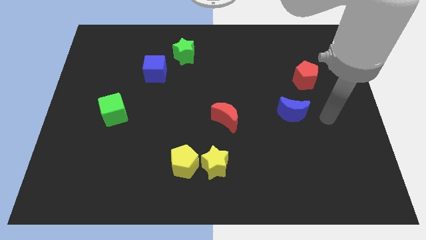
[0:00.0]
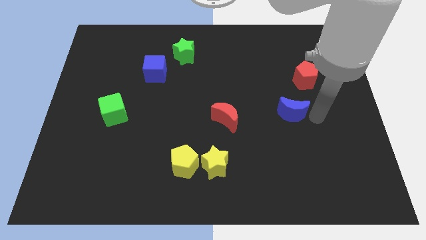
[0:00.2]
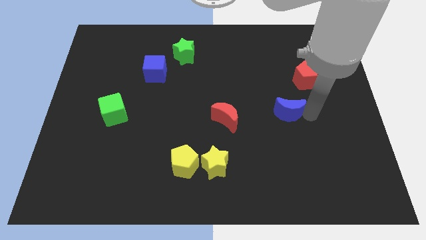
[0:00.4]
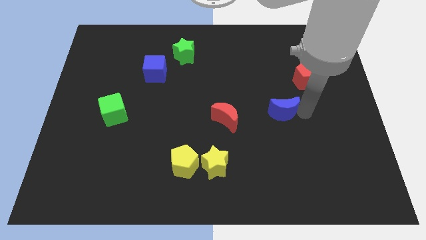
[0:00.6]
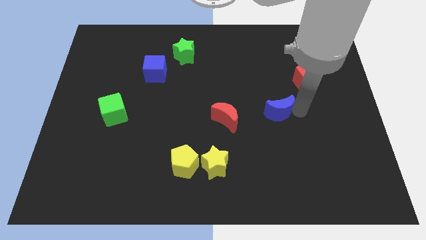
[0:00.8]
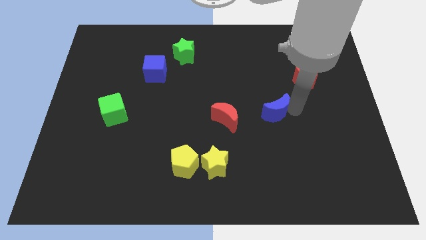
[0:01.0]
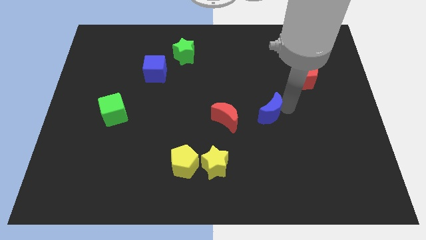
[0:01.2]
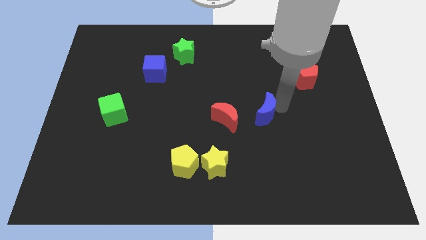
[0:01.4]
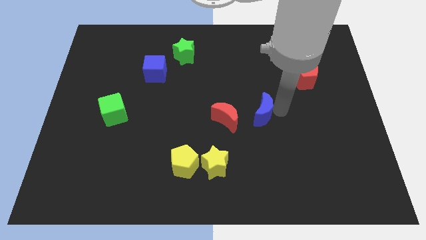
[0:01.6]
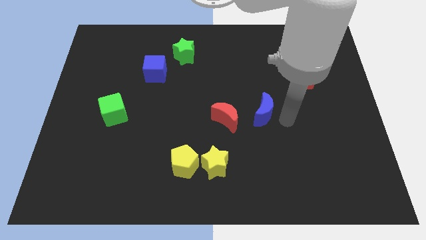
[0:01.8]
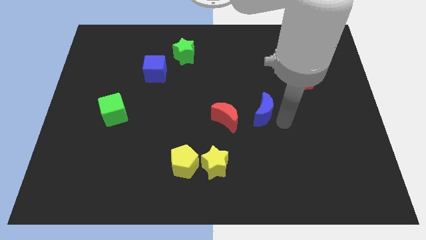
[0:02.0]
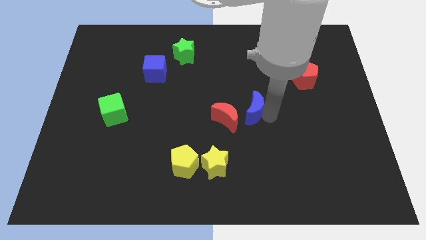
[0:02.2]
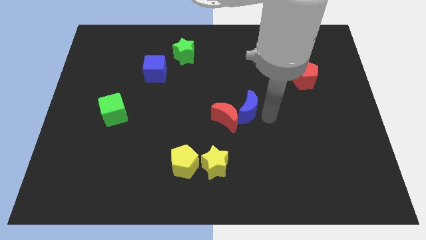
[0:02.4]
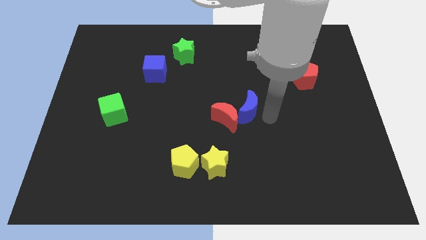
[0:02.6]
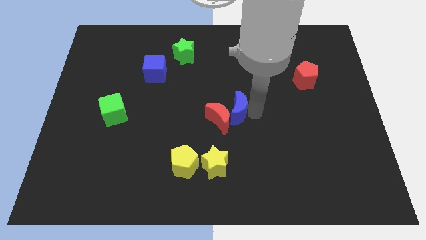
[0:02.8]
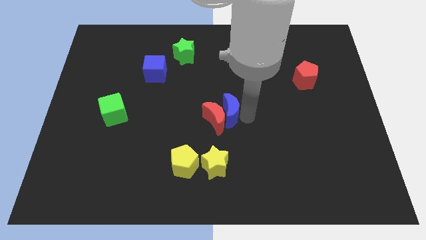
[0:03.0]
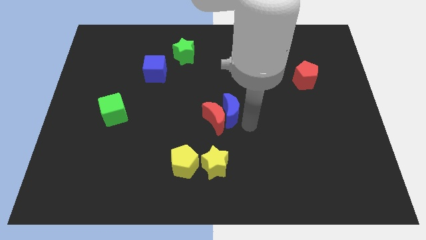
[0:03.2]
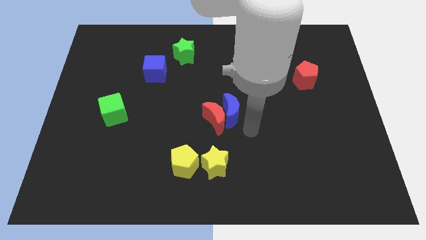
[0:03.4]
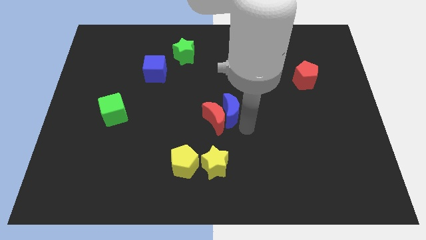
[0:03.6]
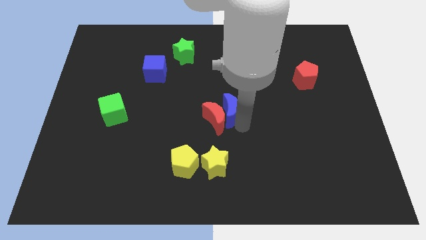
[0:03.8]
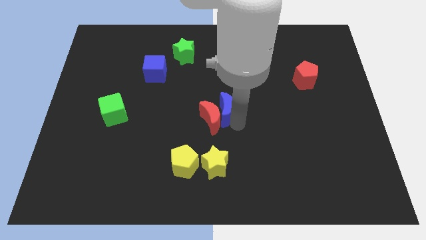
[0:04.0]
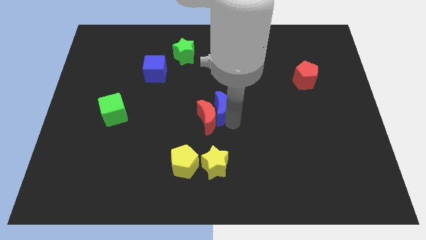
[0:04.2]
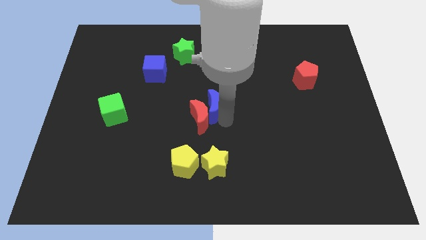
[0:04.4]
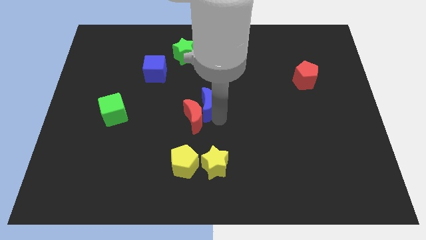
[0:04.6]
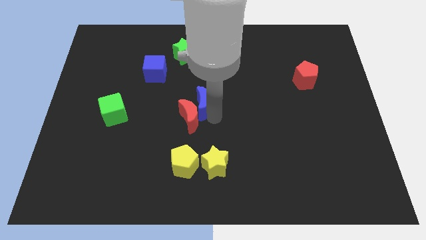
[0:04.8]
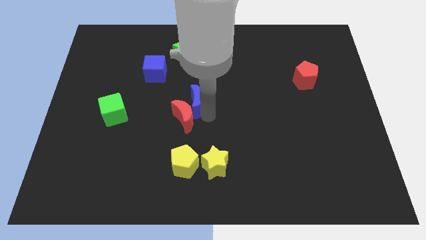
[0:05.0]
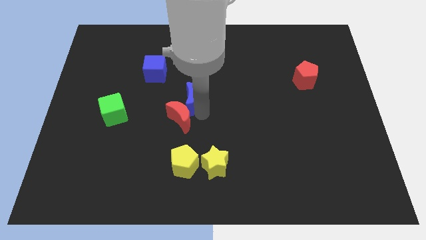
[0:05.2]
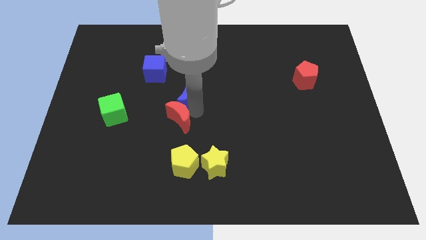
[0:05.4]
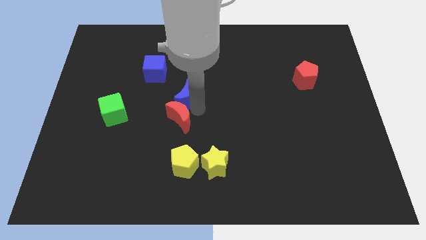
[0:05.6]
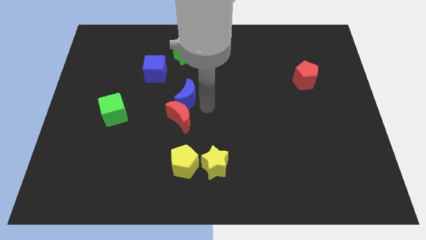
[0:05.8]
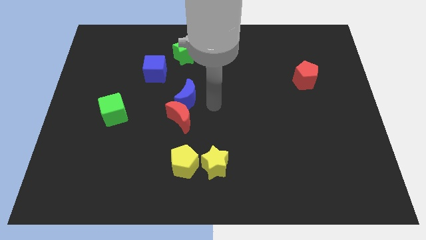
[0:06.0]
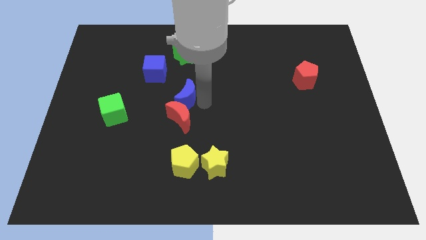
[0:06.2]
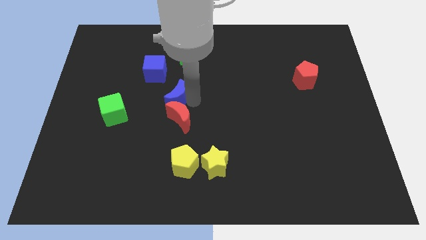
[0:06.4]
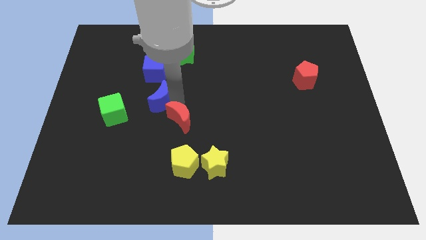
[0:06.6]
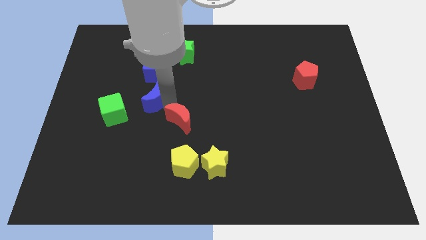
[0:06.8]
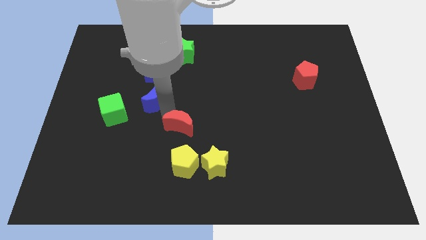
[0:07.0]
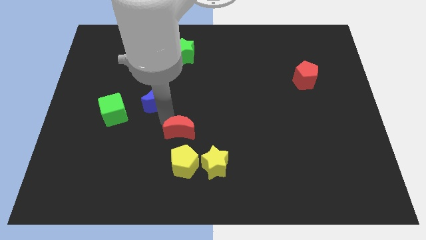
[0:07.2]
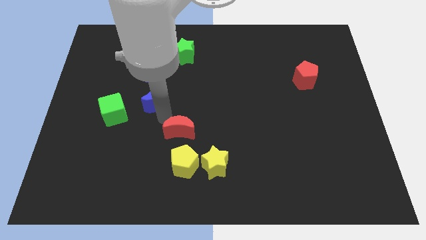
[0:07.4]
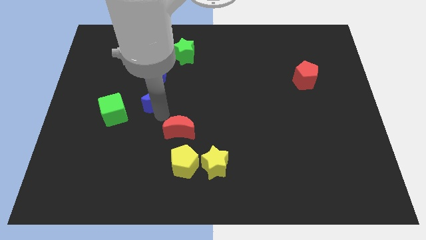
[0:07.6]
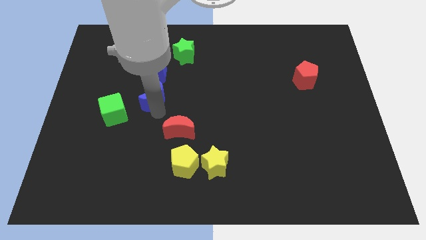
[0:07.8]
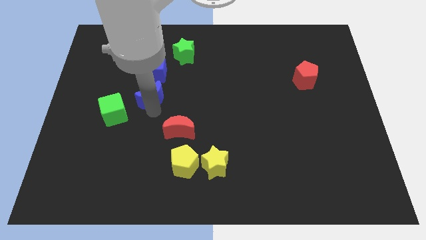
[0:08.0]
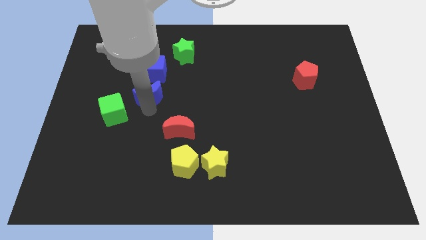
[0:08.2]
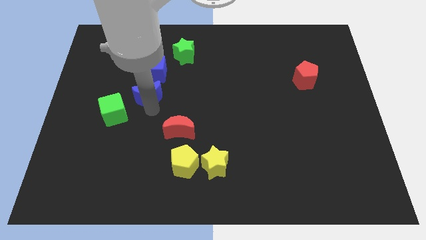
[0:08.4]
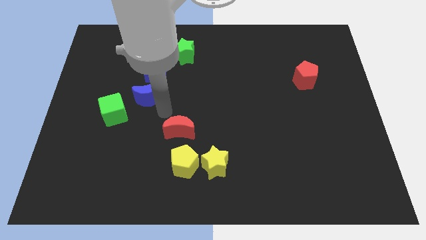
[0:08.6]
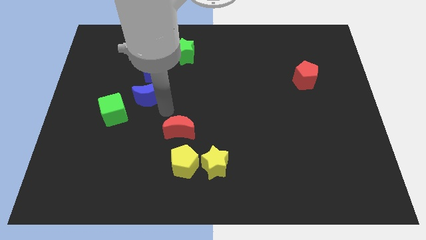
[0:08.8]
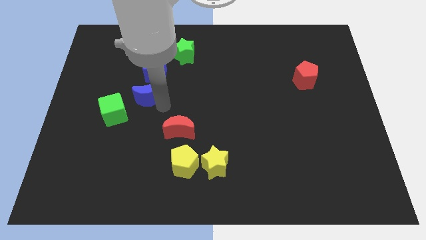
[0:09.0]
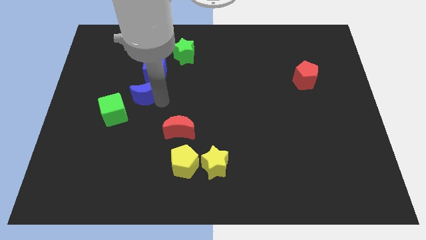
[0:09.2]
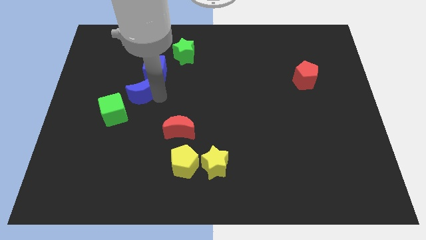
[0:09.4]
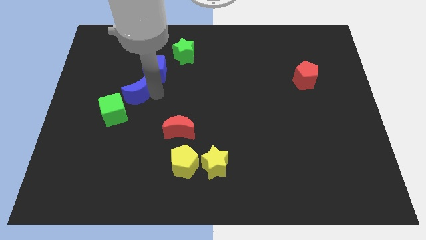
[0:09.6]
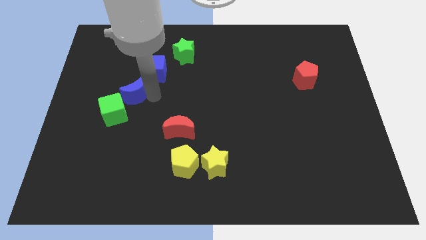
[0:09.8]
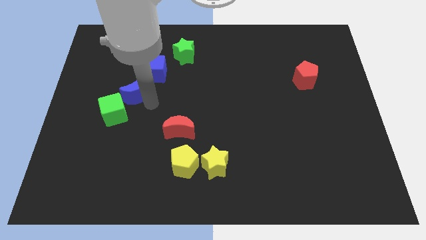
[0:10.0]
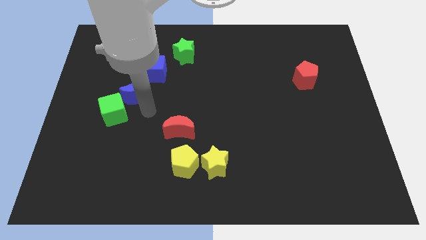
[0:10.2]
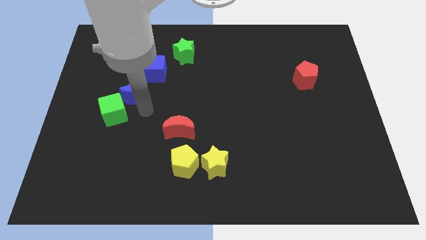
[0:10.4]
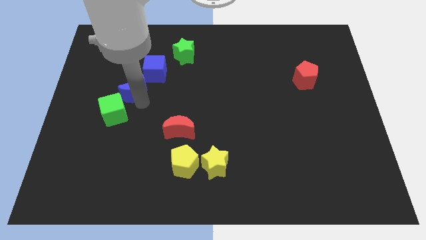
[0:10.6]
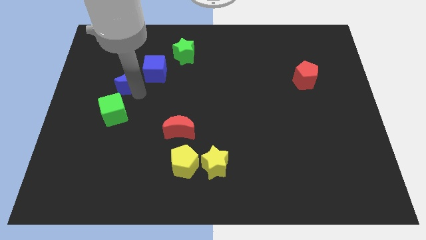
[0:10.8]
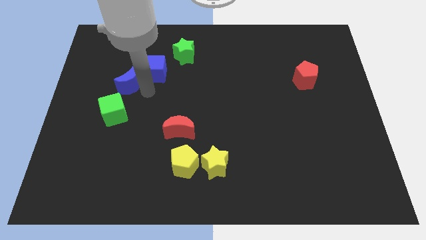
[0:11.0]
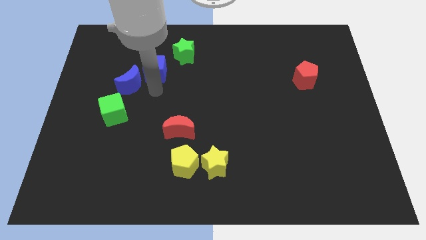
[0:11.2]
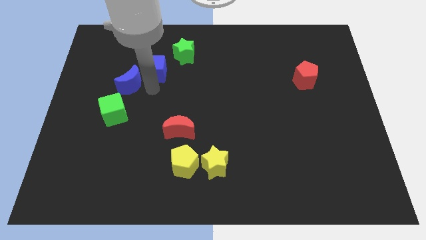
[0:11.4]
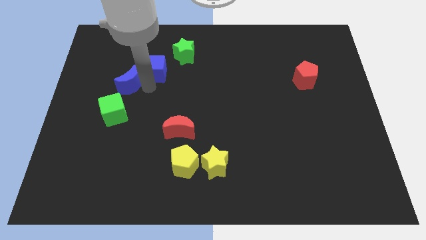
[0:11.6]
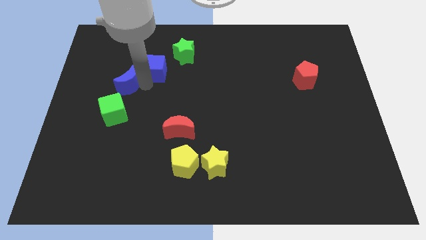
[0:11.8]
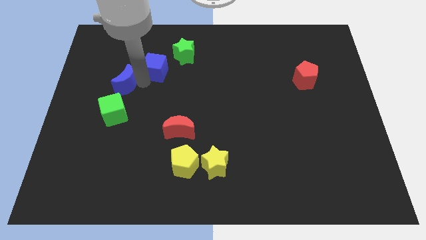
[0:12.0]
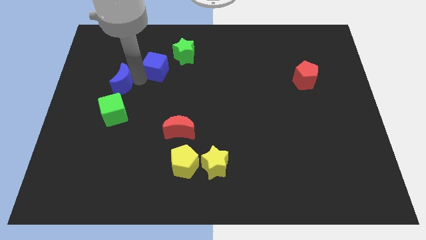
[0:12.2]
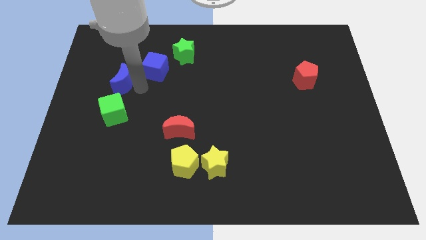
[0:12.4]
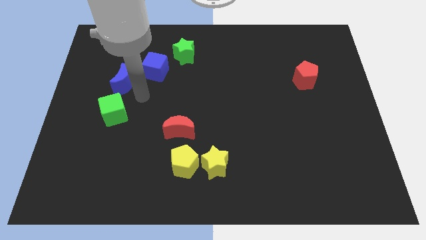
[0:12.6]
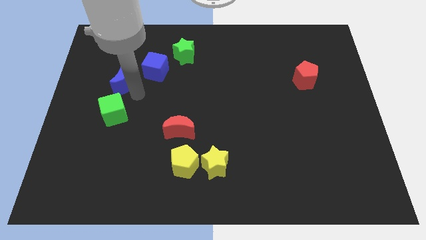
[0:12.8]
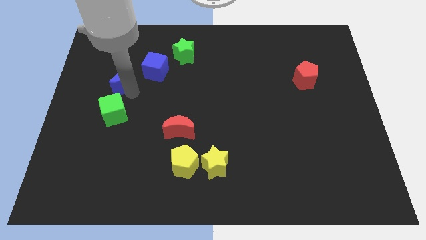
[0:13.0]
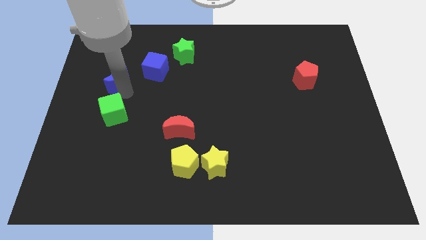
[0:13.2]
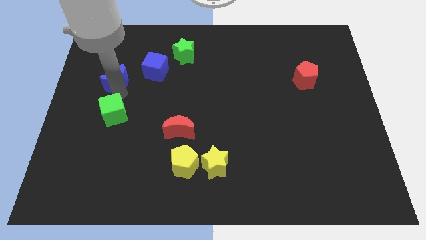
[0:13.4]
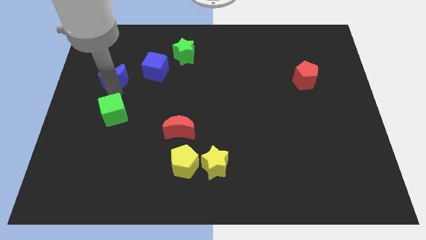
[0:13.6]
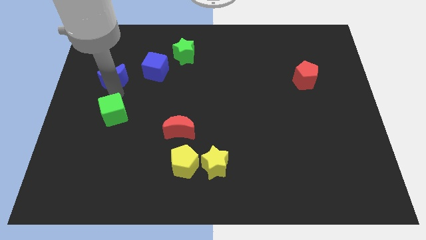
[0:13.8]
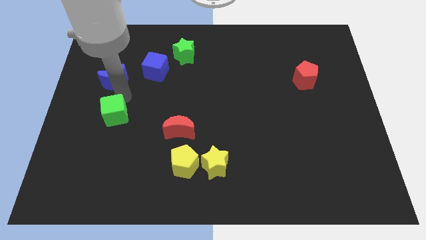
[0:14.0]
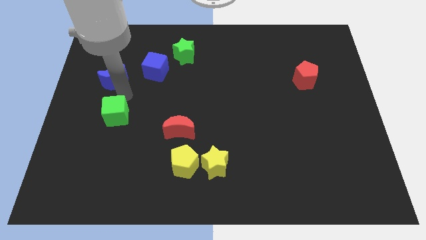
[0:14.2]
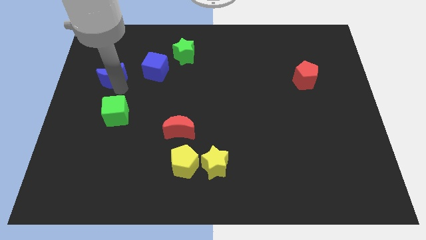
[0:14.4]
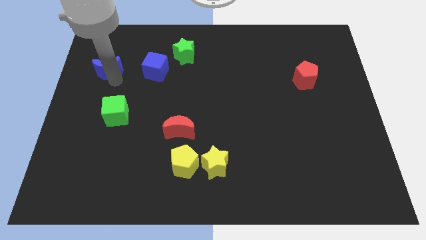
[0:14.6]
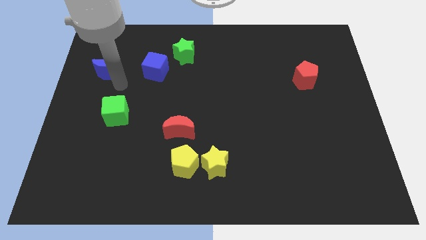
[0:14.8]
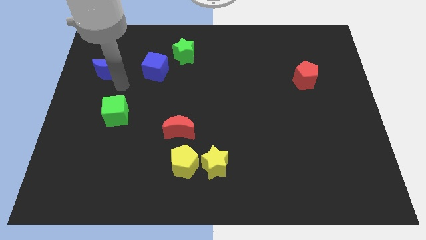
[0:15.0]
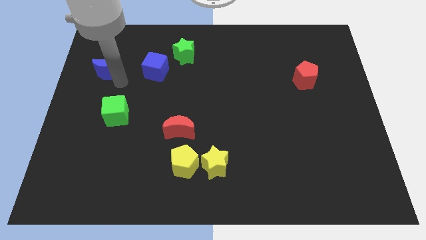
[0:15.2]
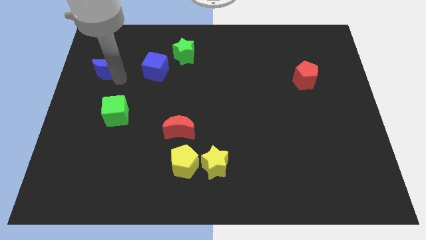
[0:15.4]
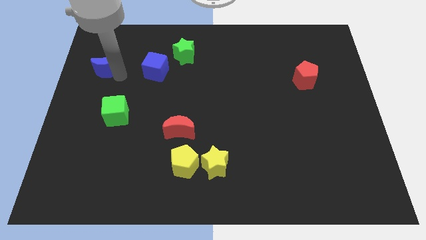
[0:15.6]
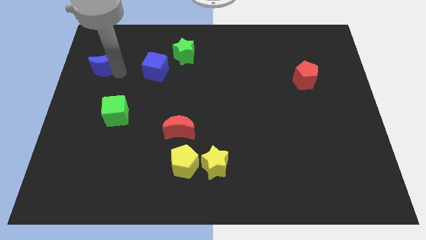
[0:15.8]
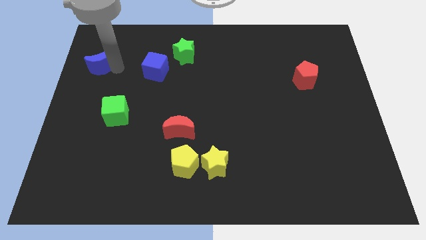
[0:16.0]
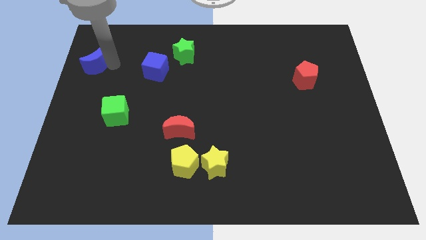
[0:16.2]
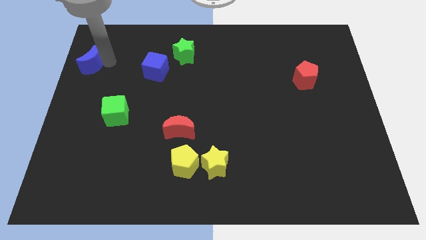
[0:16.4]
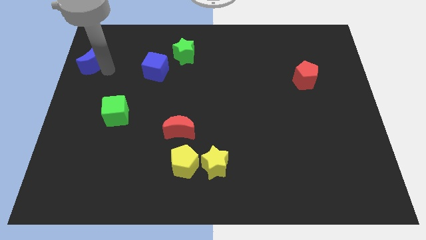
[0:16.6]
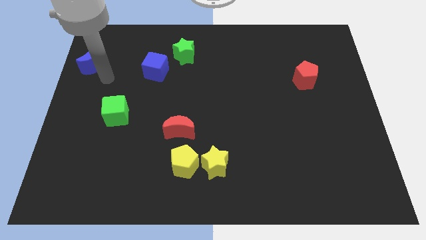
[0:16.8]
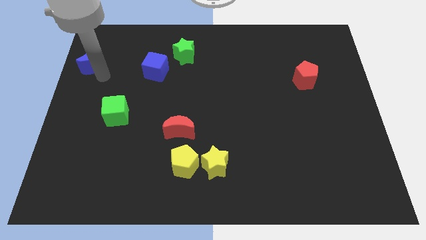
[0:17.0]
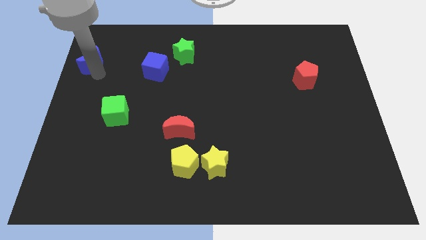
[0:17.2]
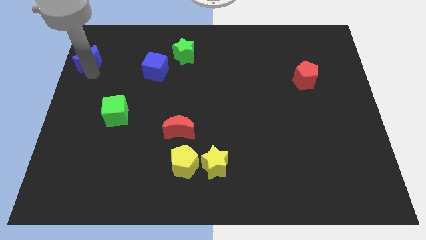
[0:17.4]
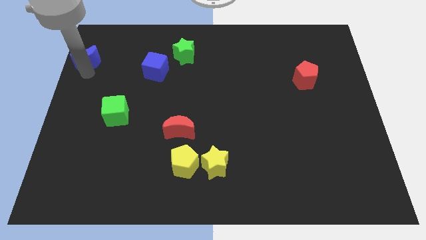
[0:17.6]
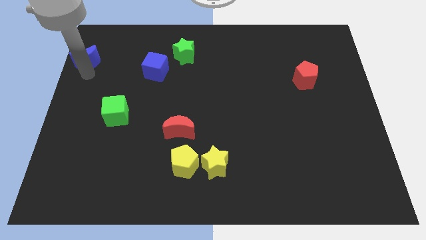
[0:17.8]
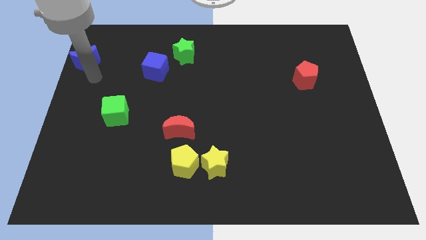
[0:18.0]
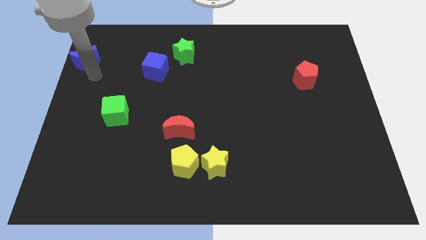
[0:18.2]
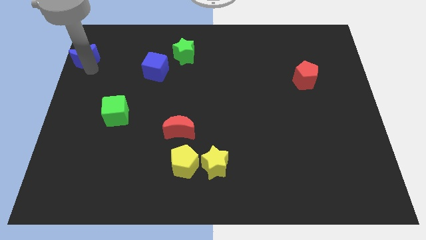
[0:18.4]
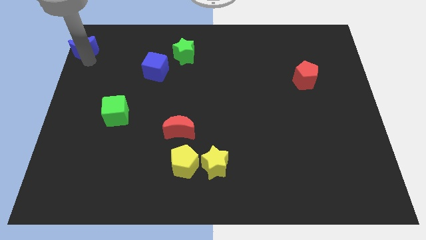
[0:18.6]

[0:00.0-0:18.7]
move the blue moon to the upper left corner
